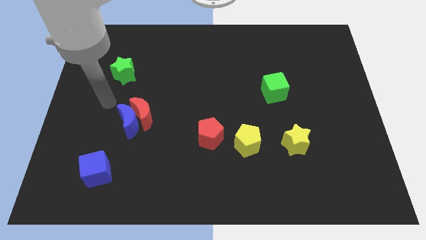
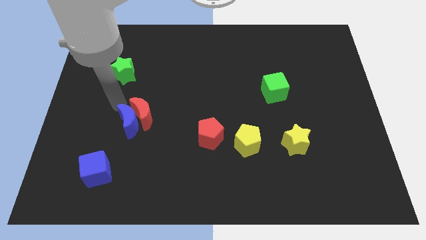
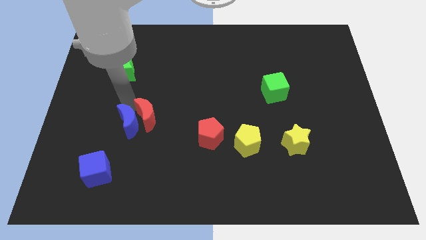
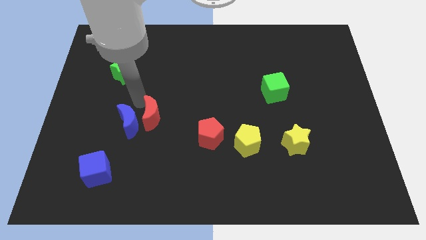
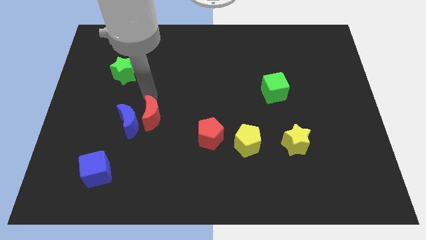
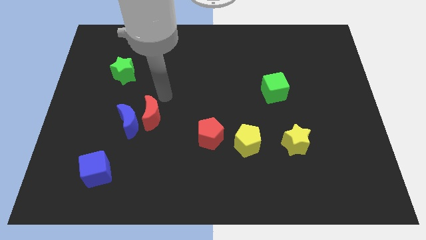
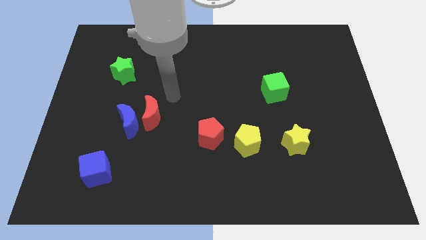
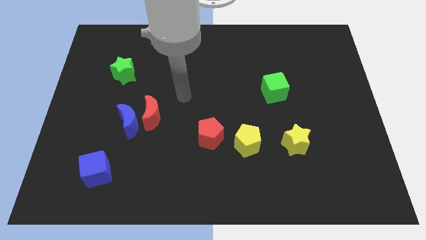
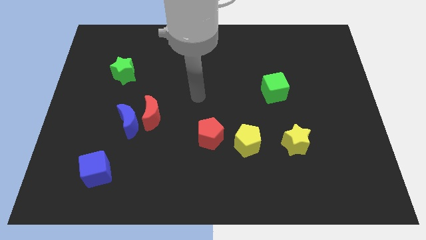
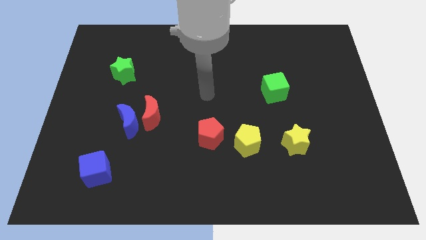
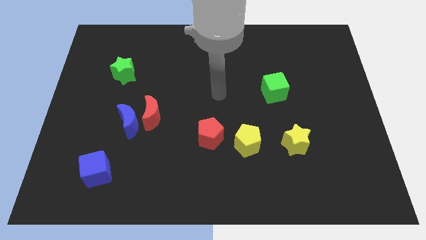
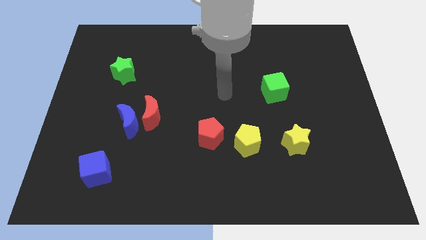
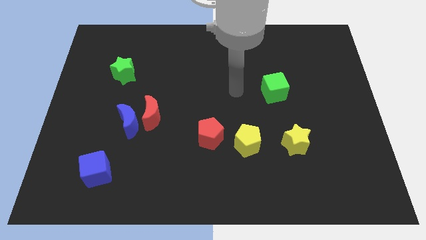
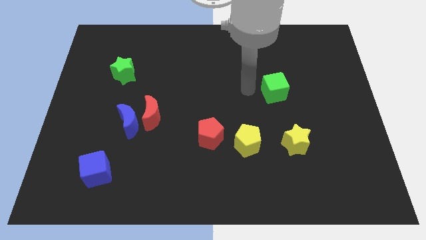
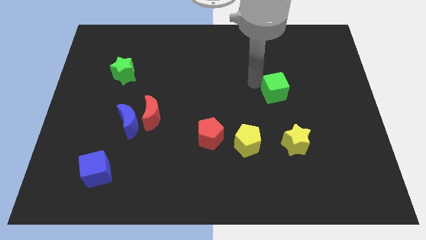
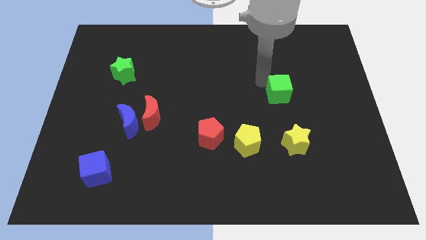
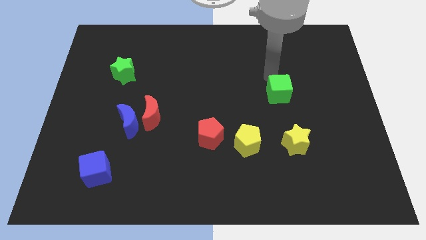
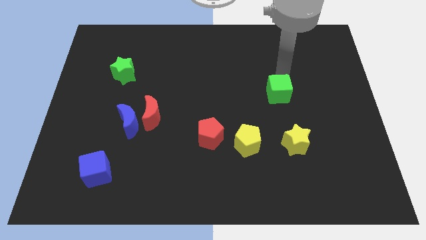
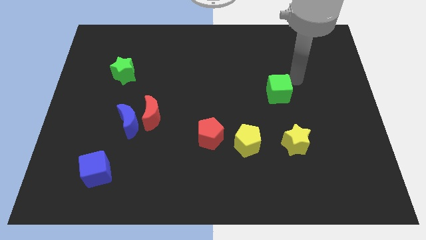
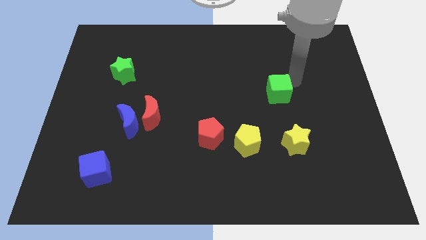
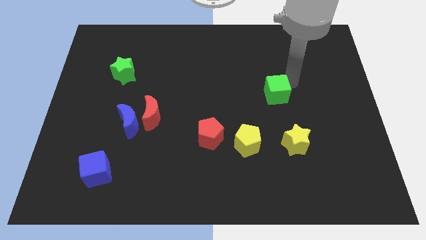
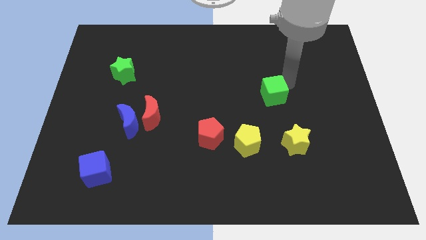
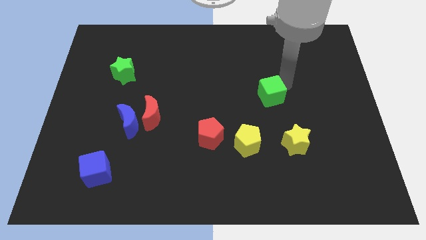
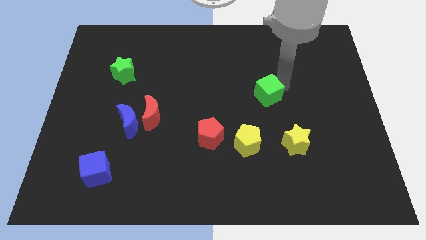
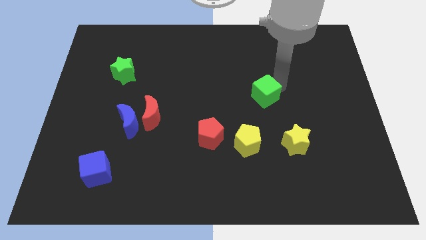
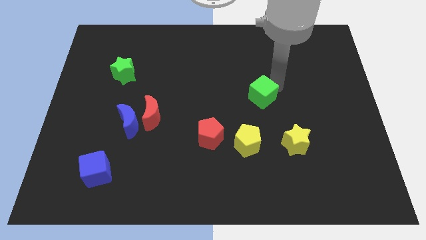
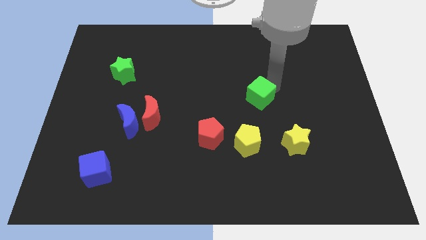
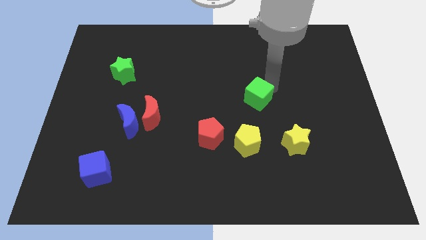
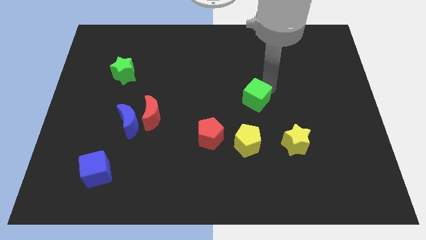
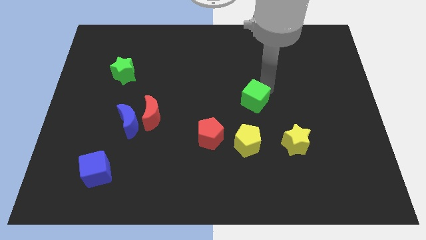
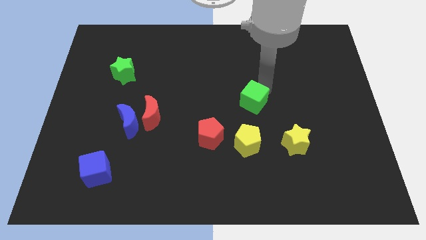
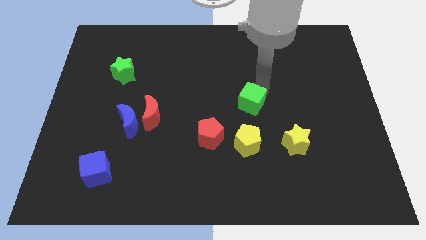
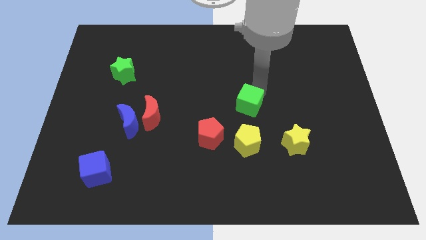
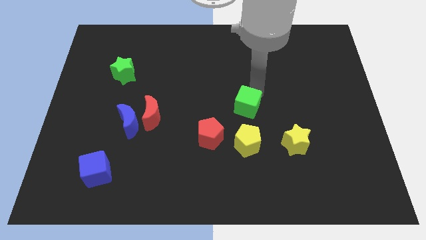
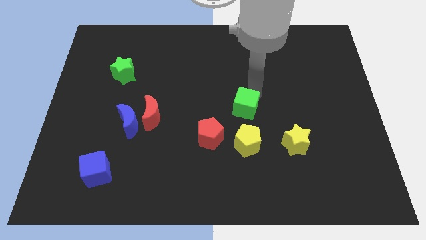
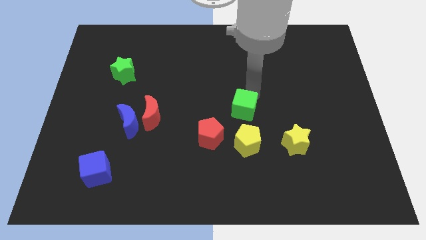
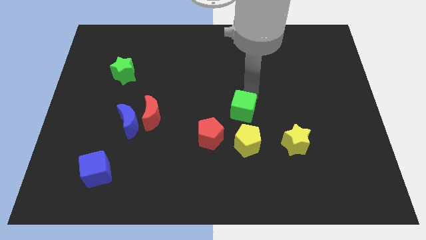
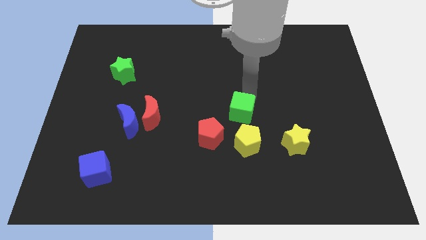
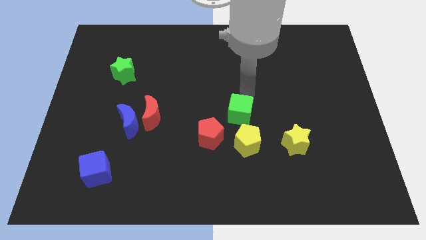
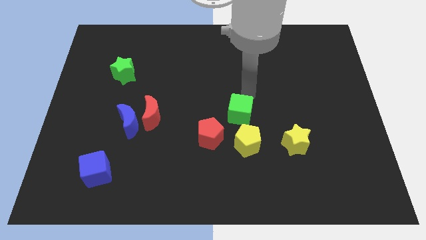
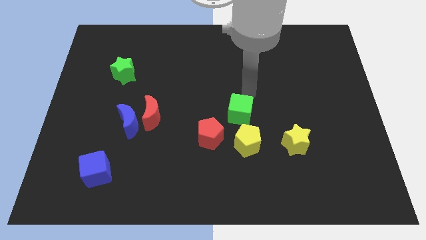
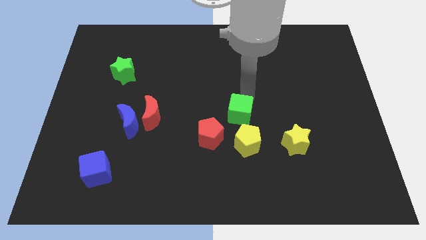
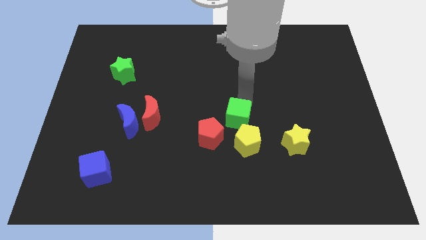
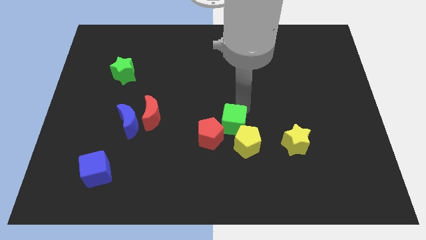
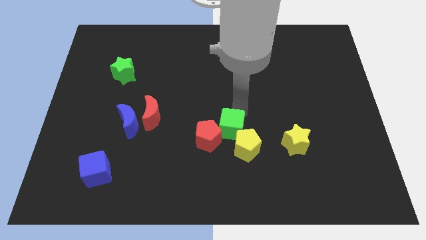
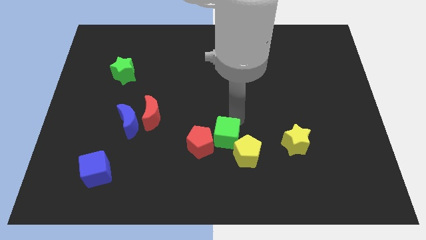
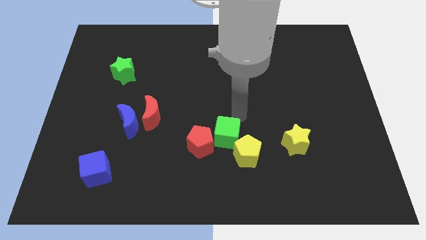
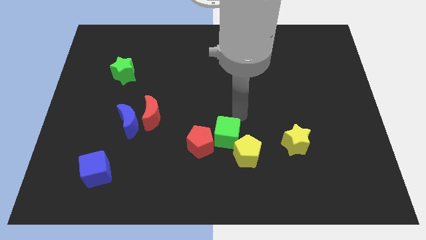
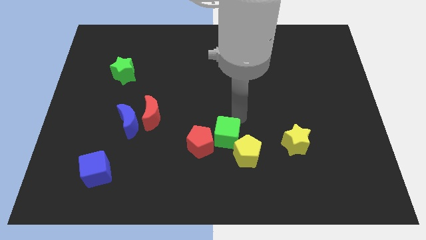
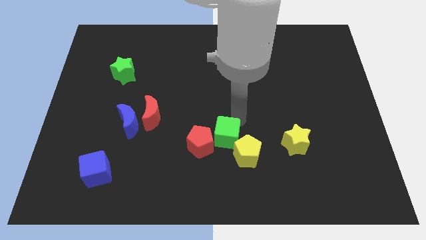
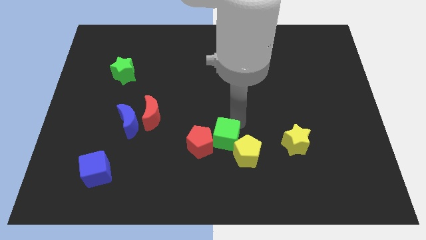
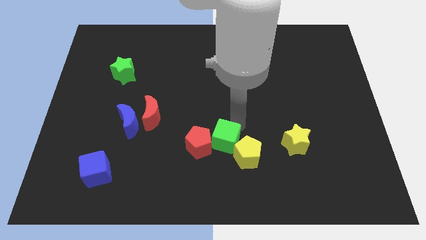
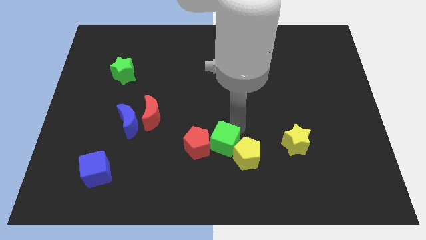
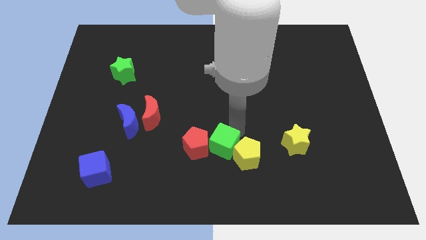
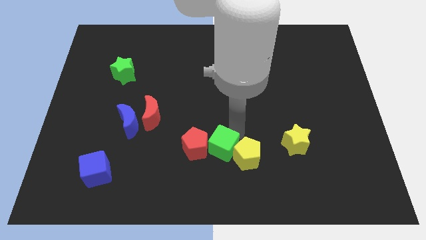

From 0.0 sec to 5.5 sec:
move the green cube down and left

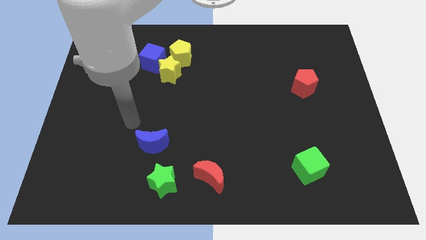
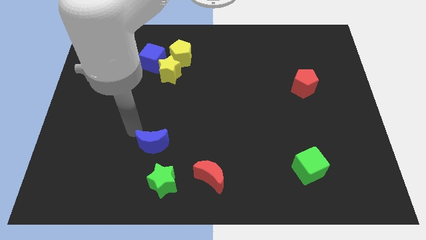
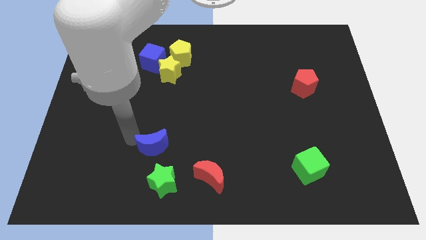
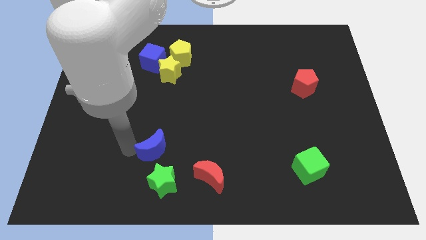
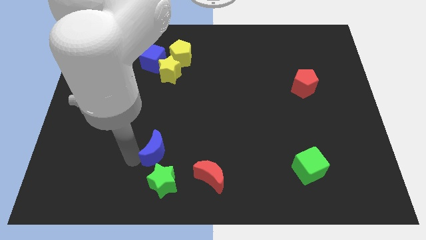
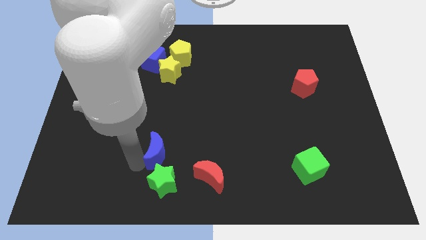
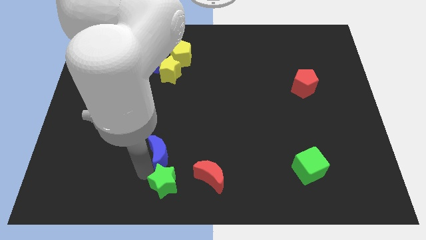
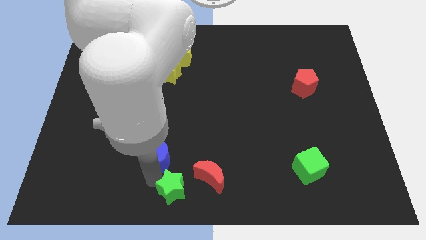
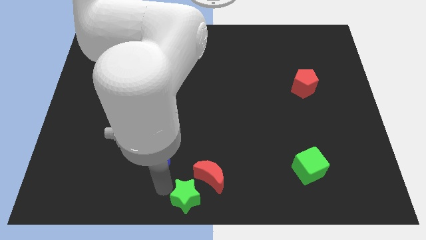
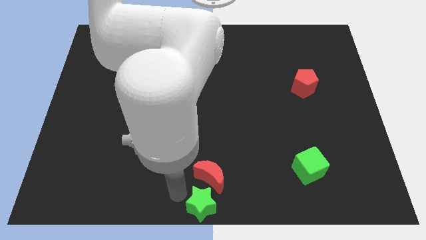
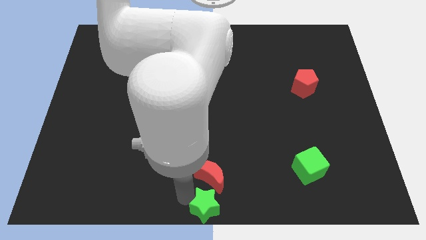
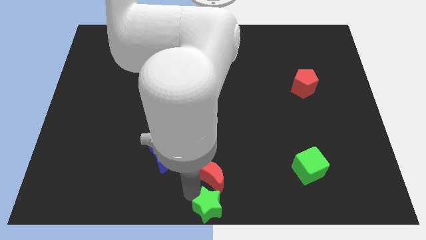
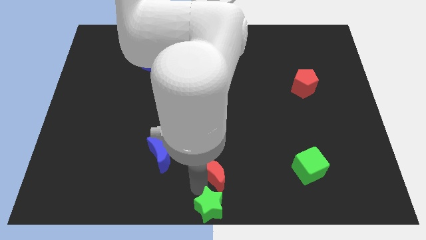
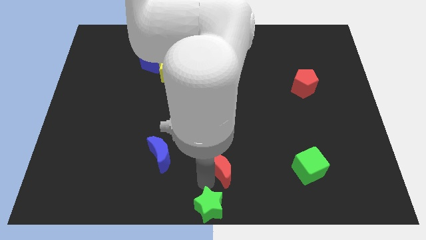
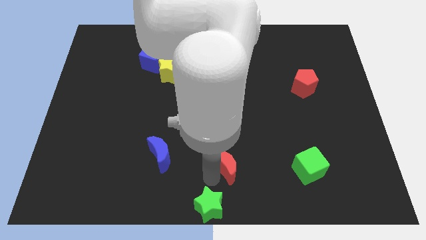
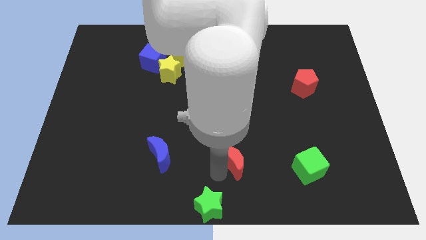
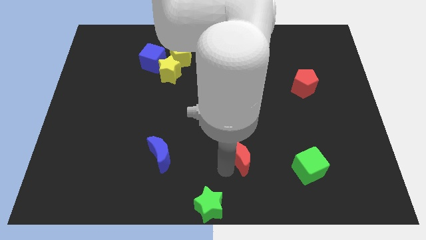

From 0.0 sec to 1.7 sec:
move the red moon a bit up and to the right

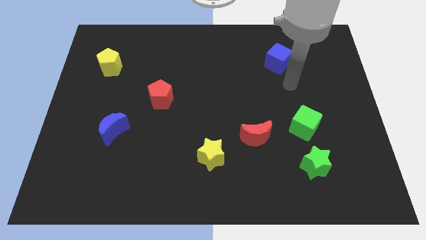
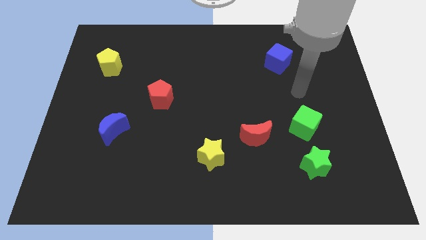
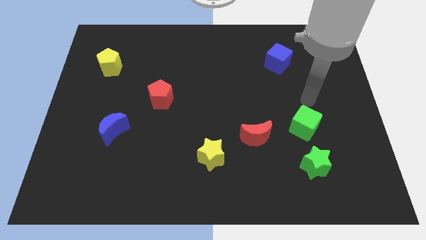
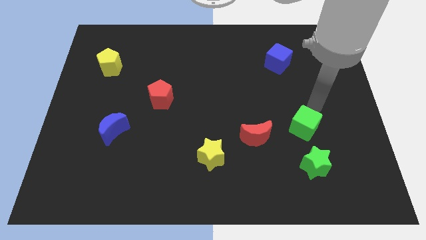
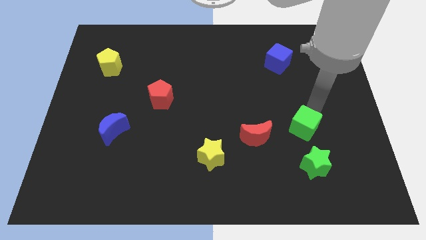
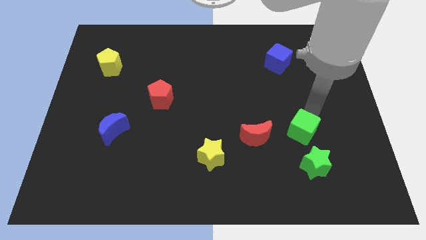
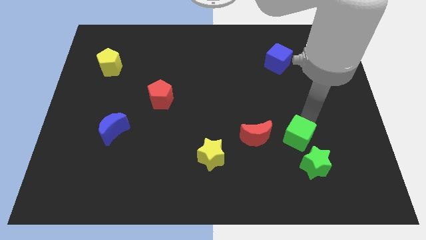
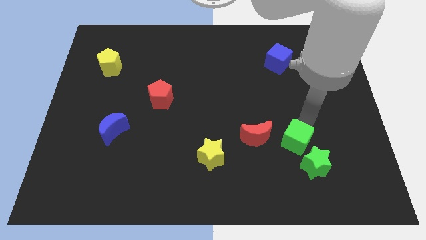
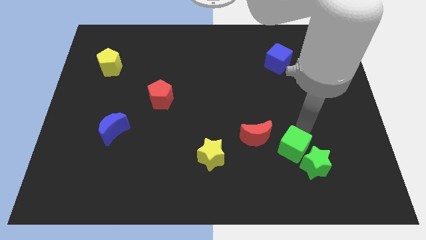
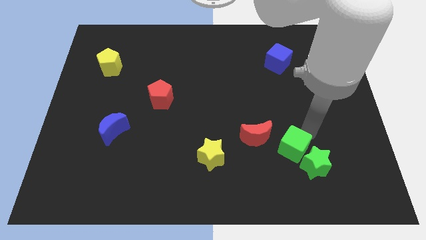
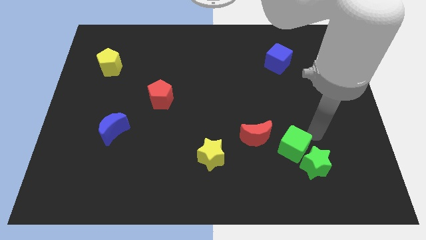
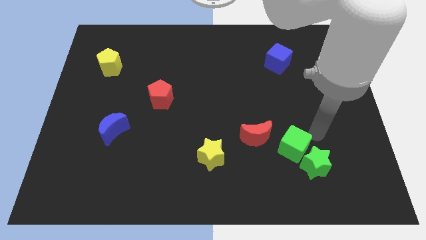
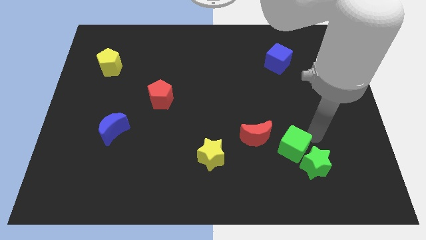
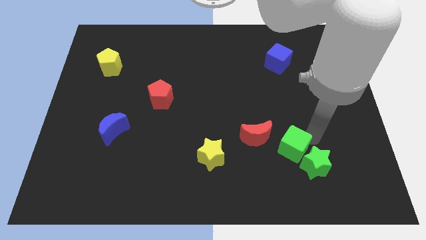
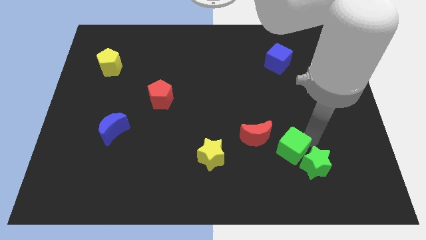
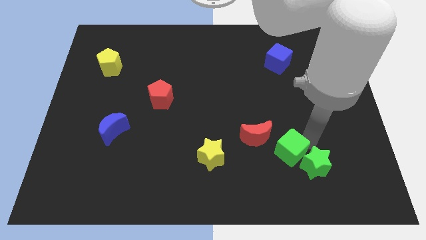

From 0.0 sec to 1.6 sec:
move the green cube a little bit diagonally downwards and to the left

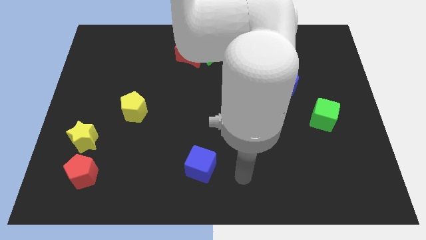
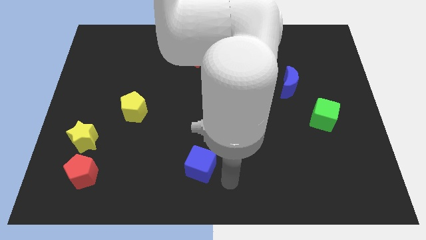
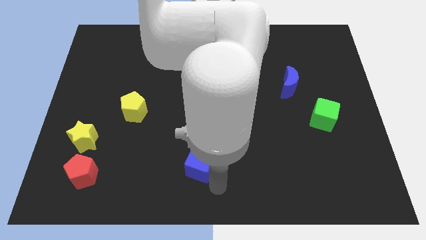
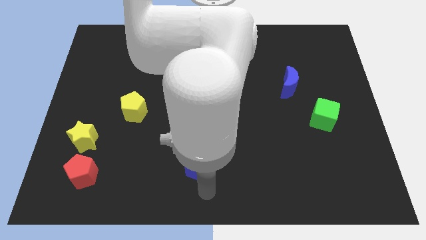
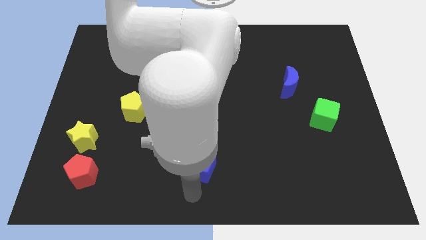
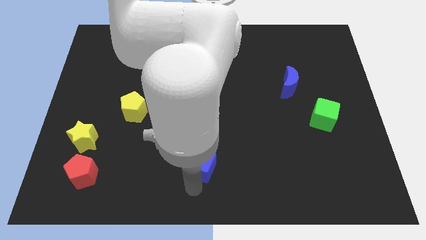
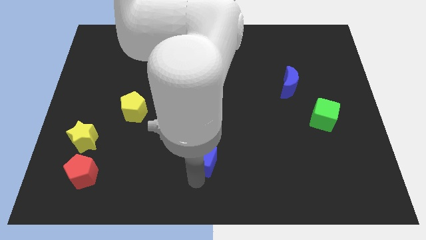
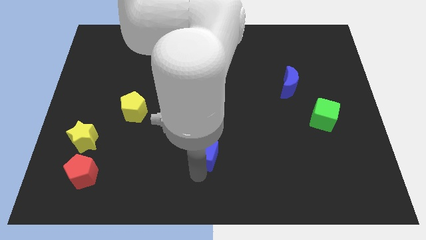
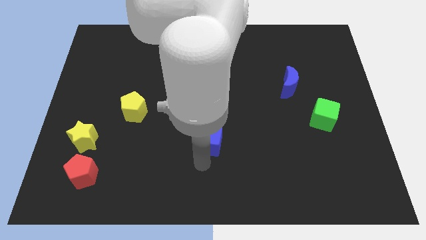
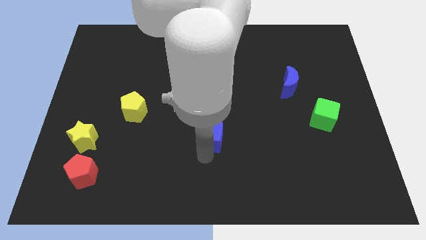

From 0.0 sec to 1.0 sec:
slightly push the blue cube upwards
